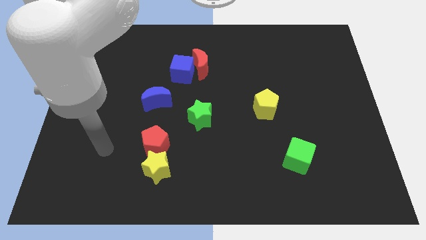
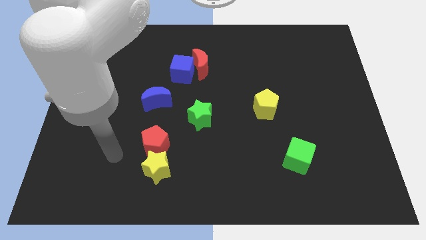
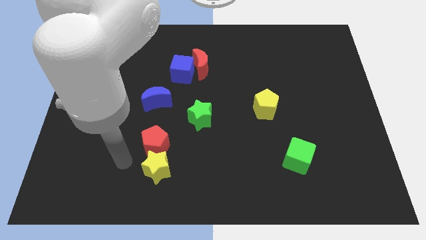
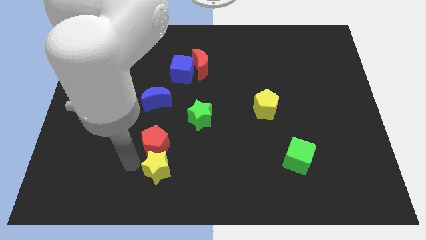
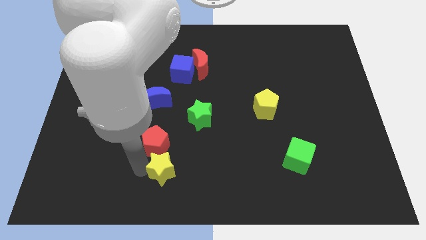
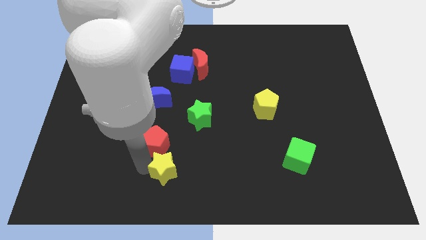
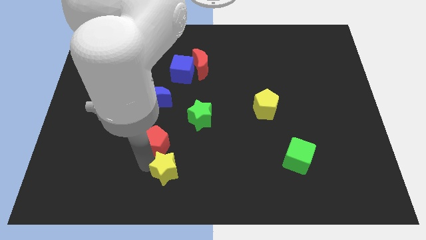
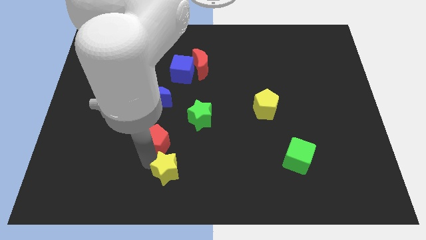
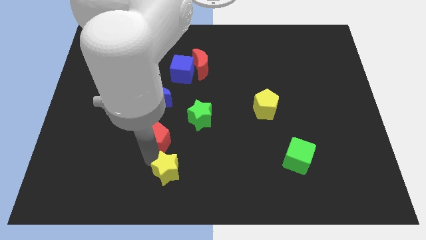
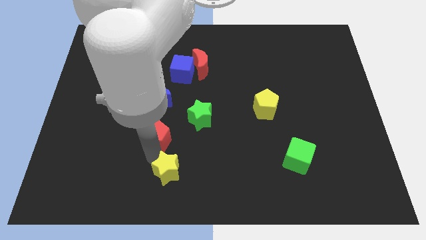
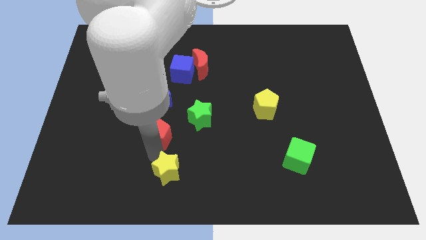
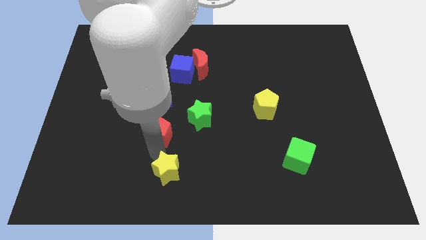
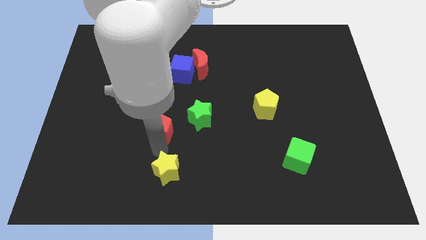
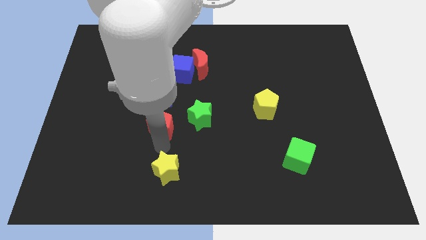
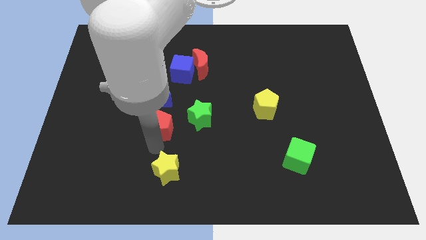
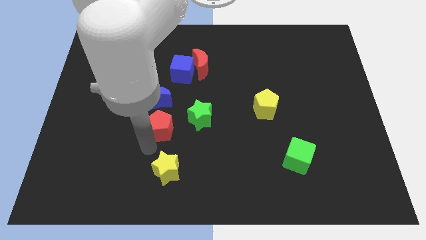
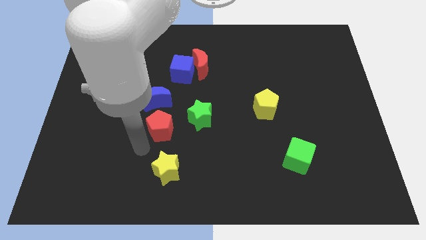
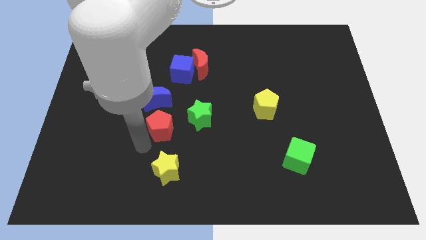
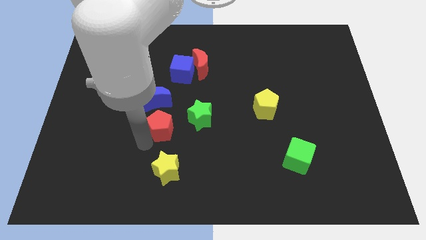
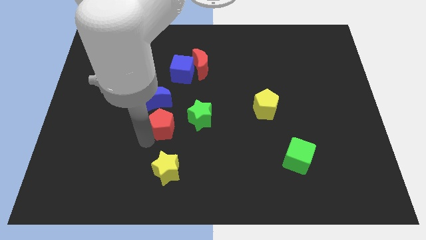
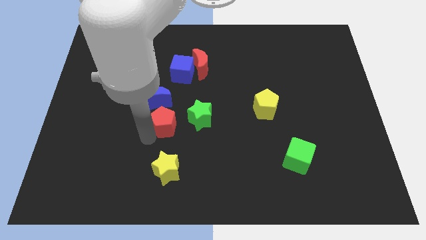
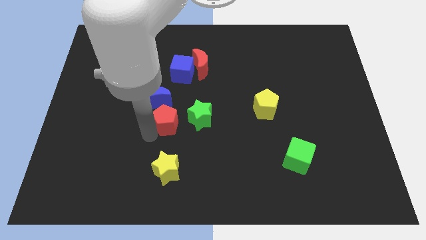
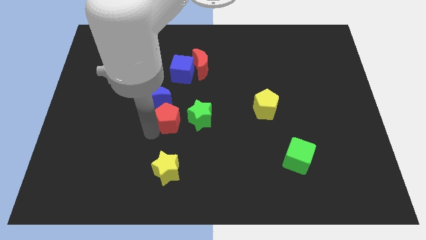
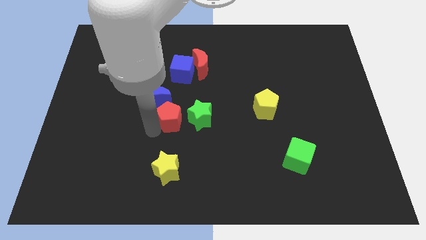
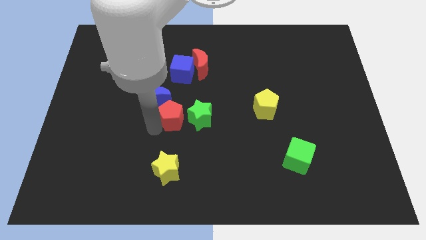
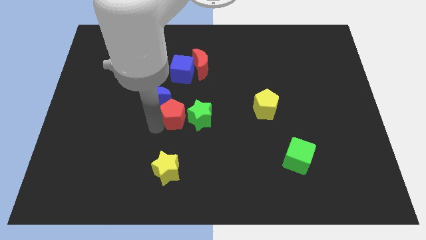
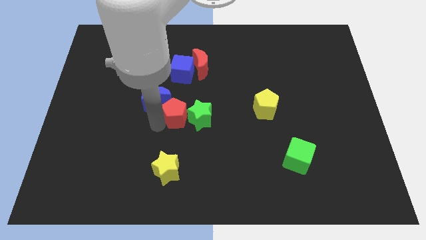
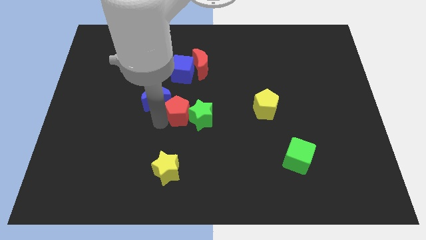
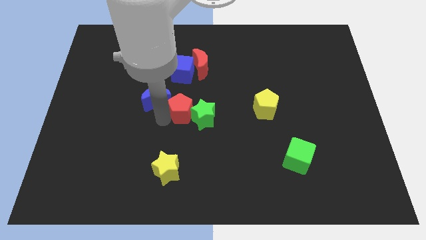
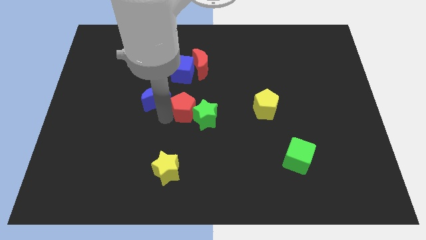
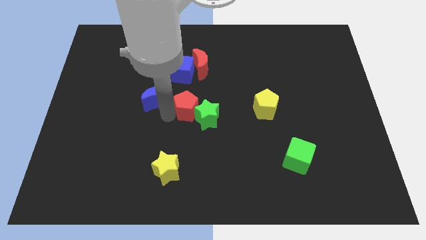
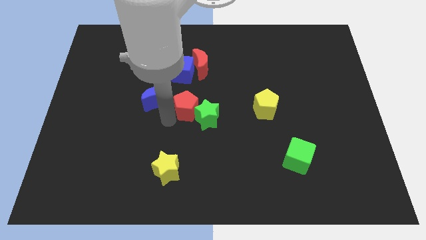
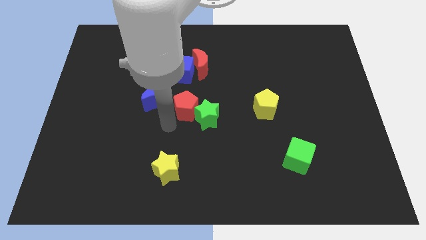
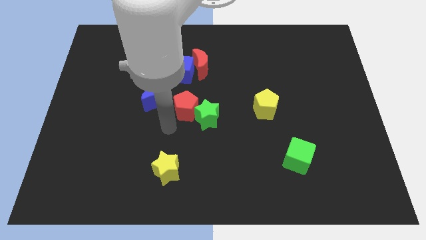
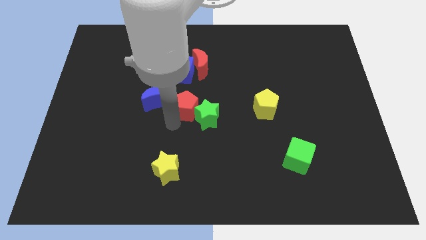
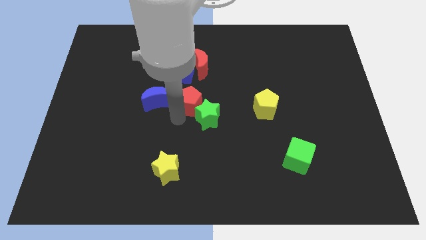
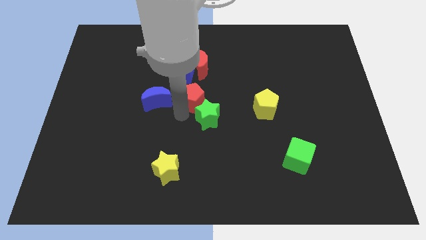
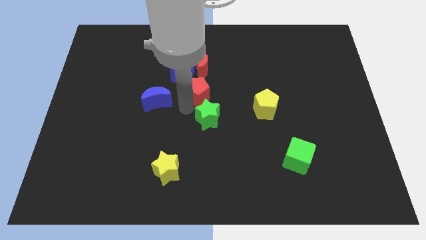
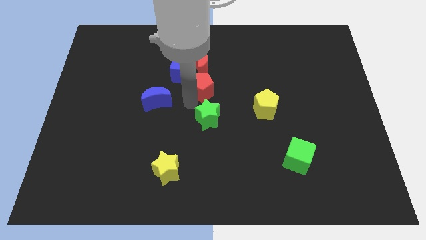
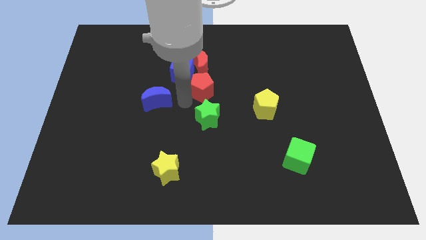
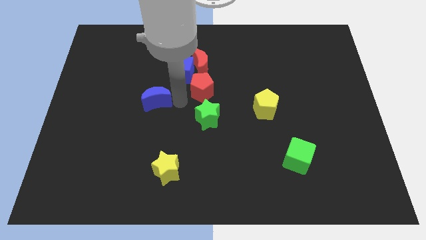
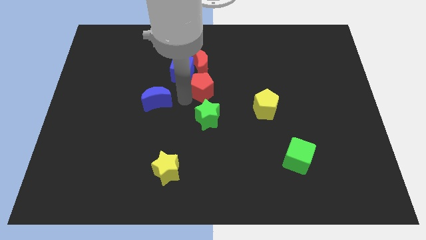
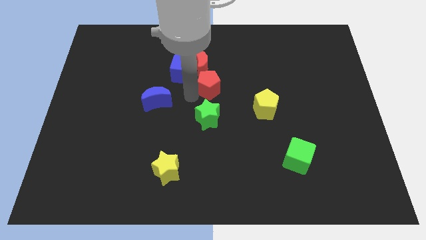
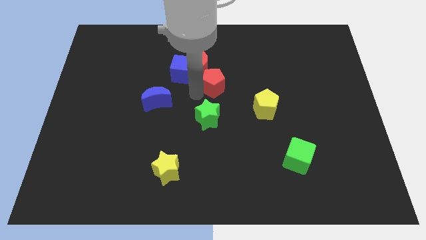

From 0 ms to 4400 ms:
push the red pentagon up and right

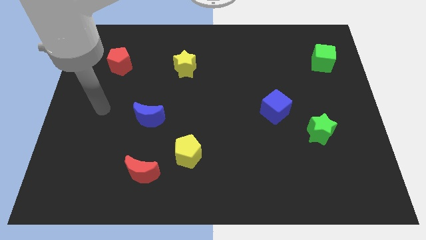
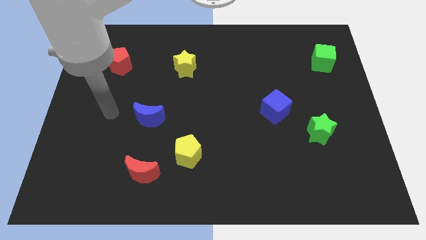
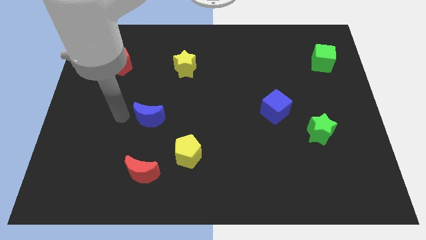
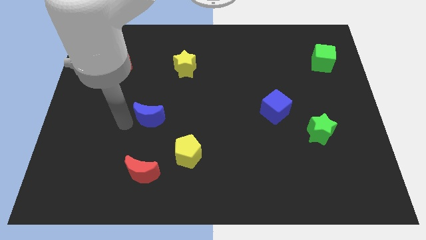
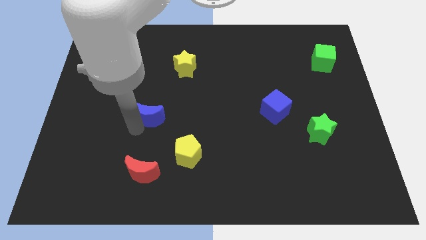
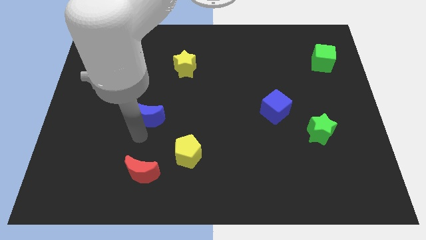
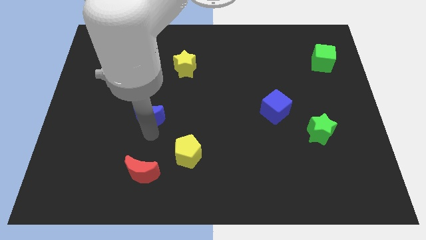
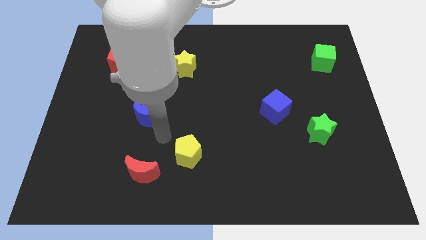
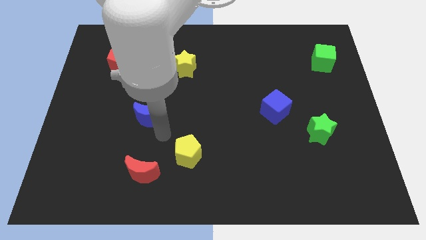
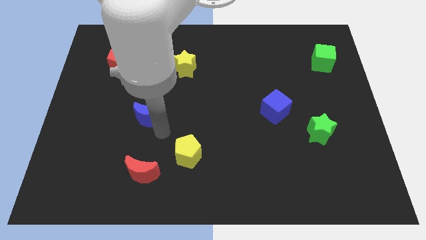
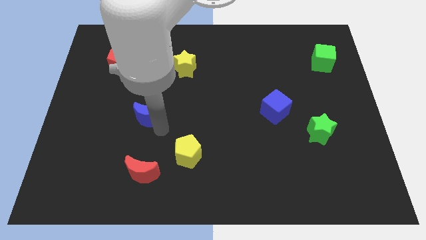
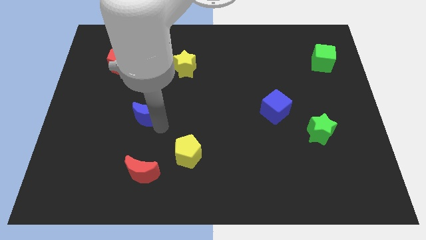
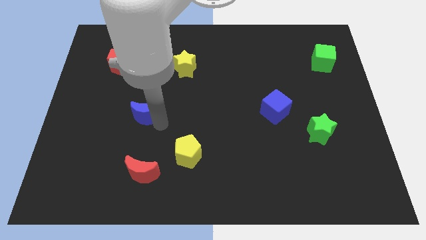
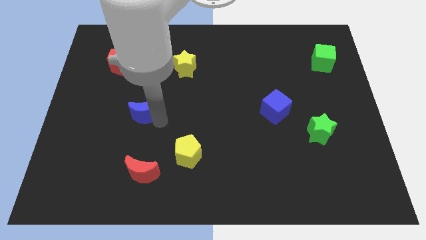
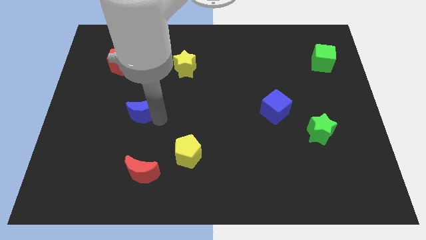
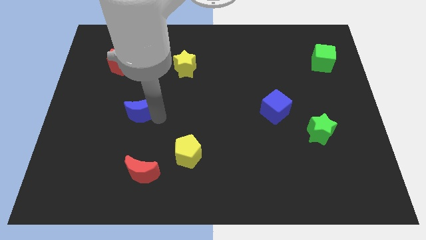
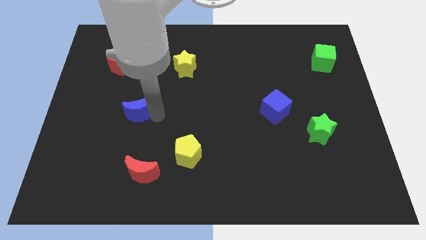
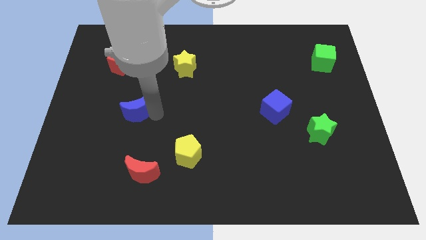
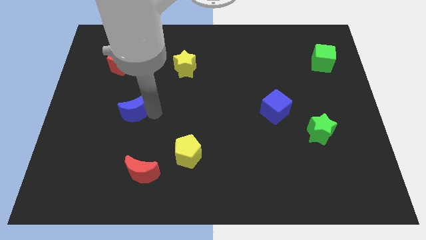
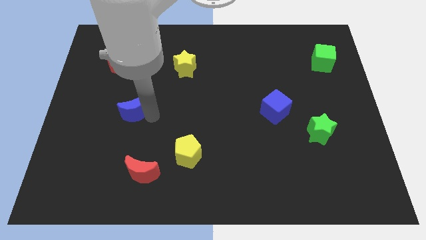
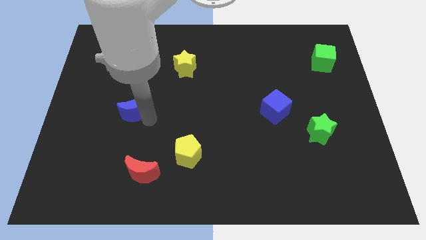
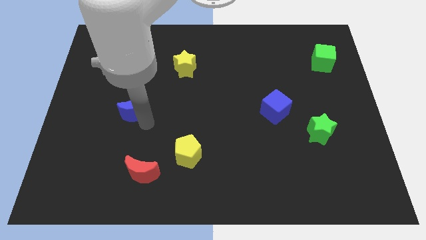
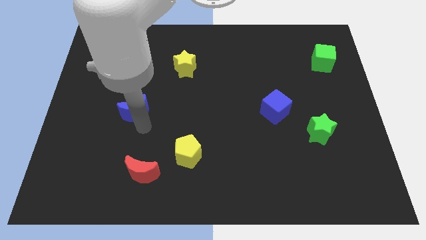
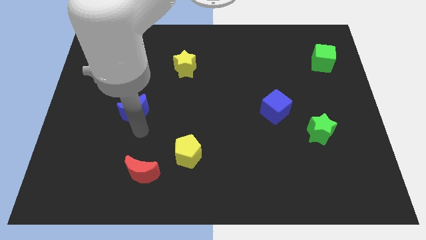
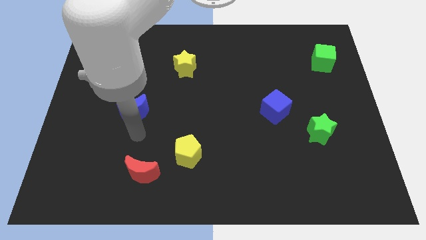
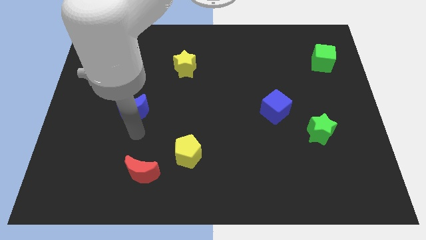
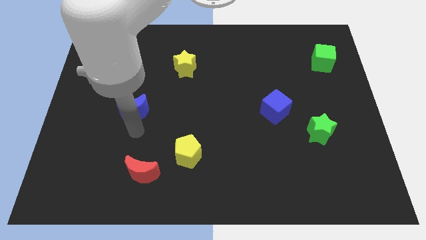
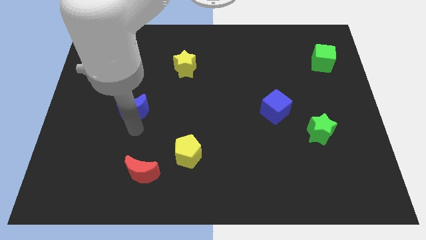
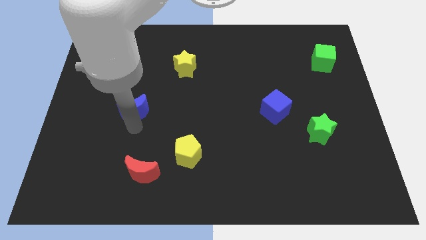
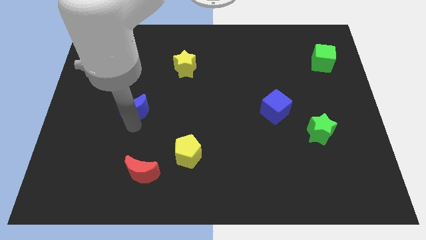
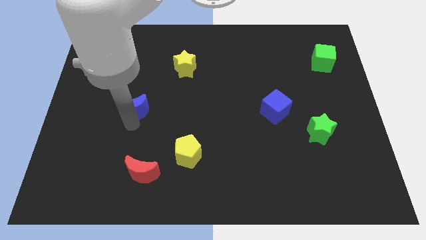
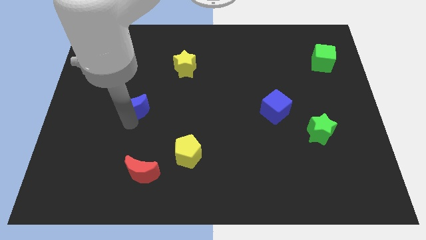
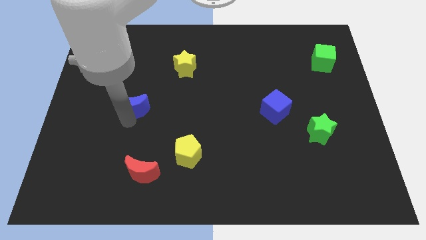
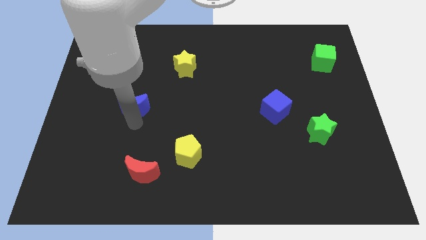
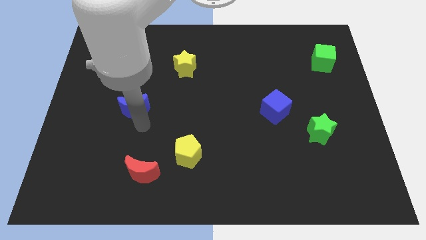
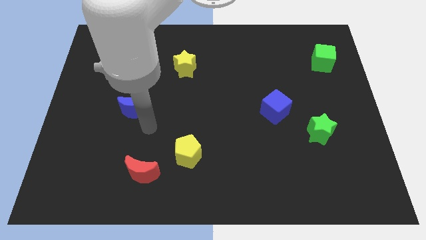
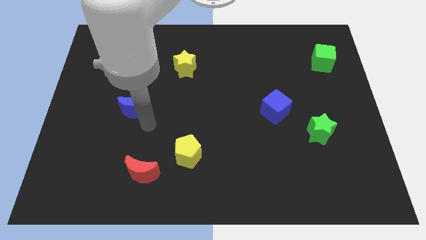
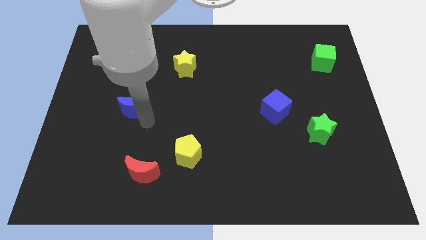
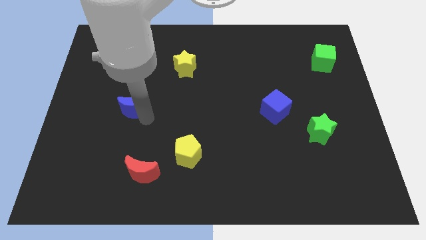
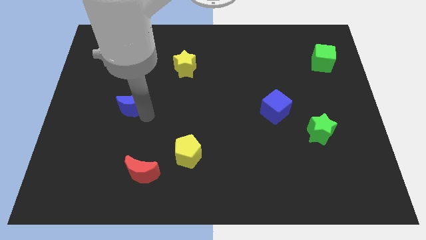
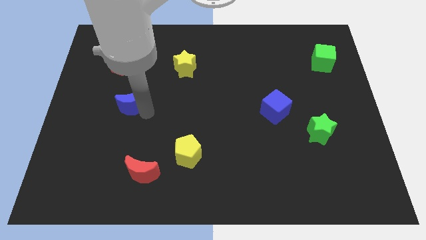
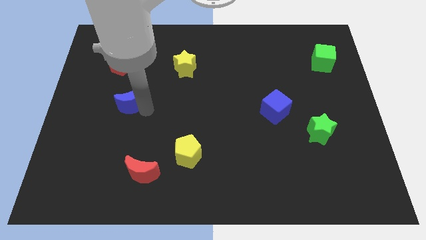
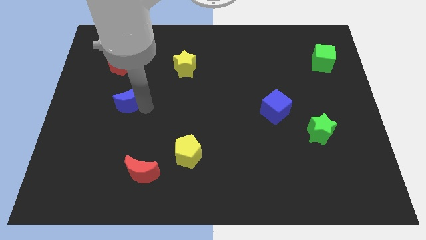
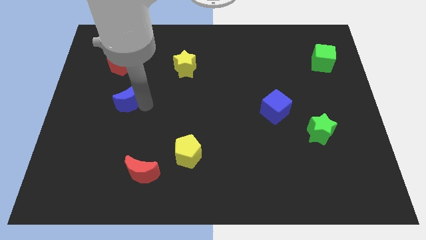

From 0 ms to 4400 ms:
slide the blue moon up and to the left diagonally a little
